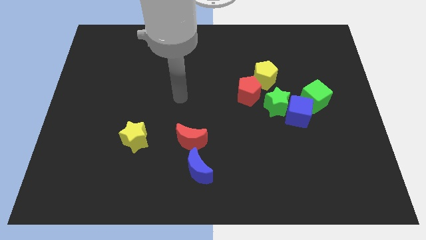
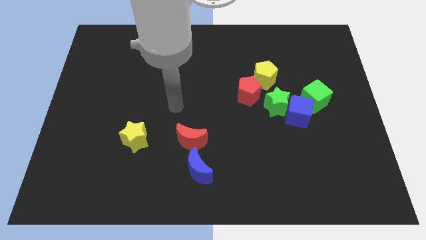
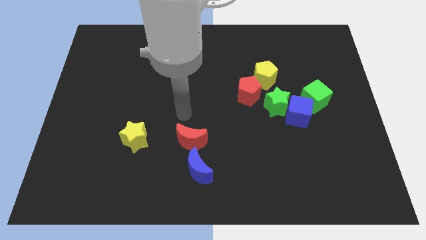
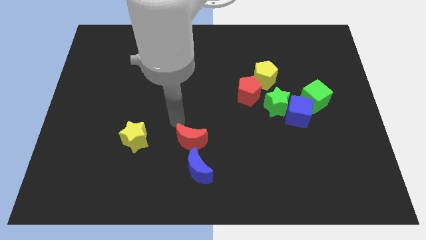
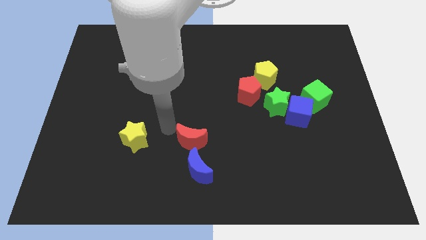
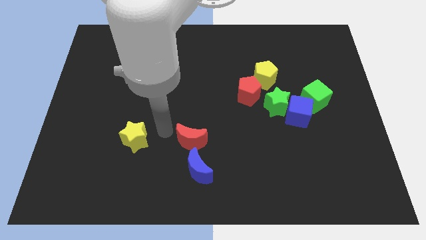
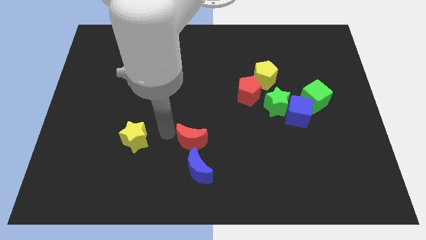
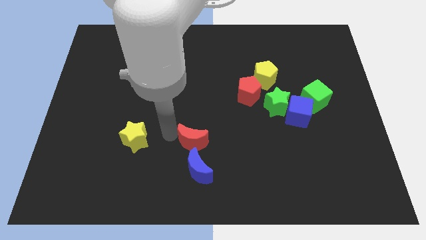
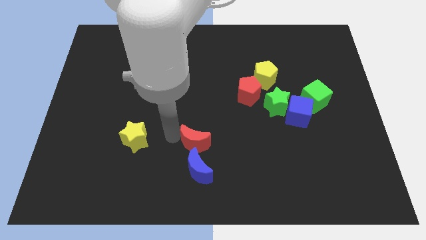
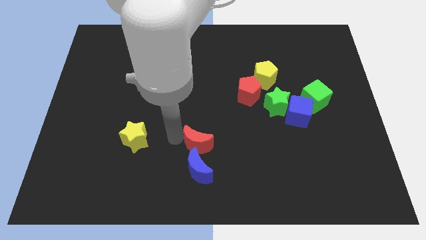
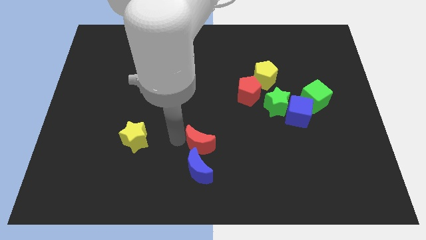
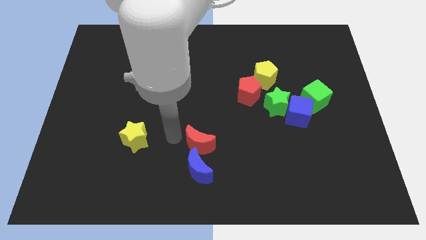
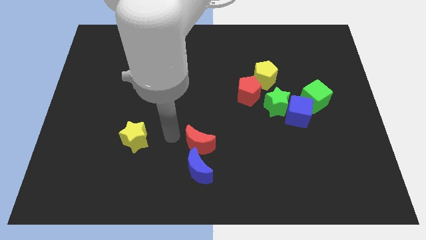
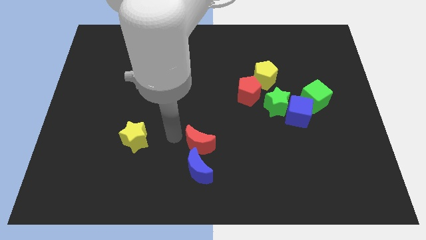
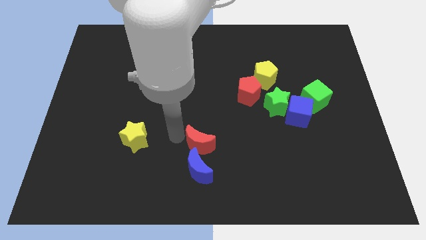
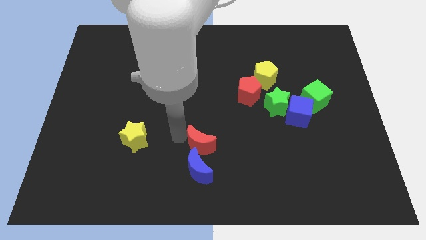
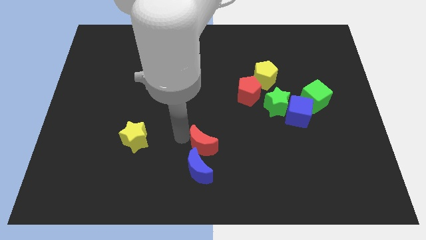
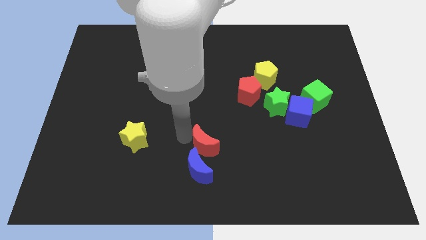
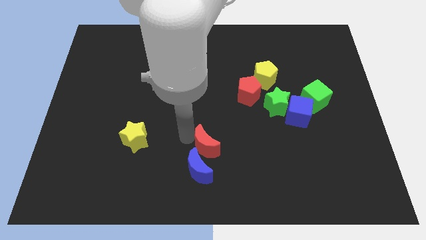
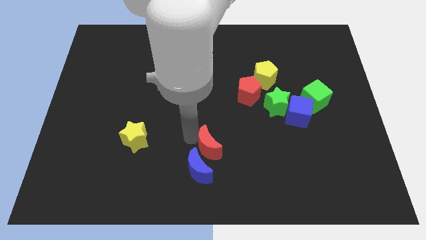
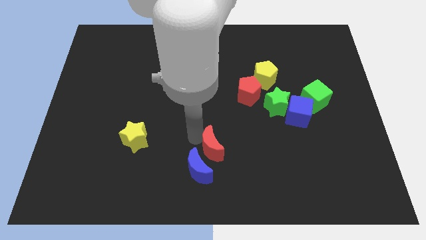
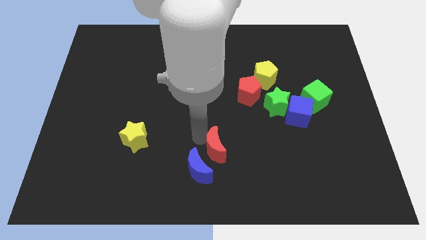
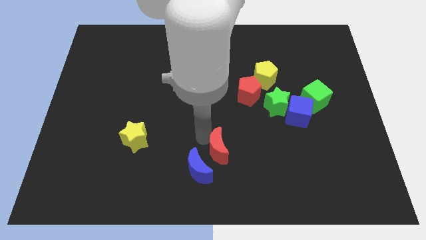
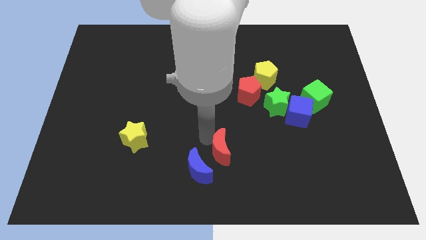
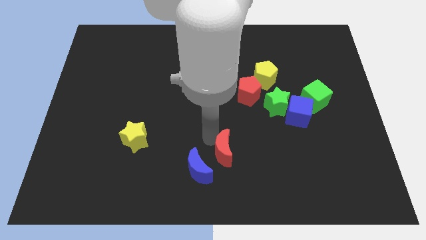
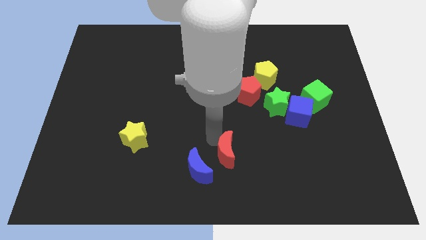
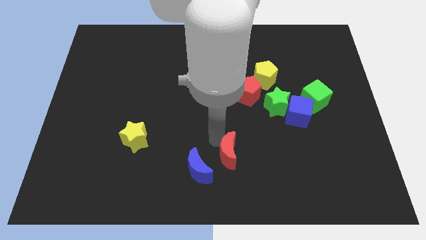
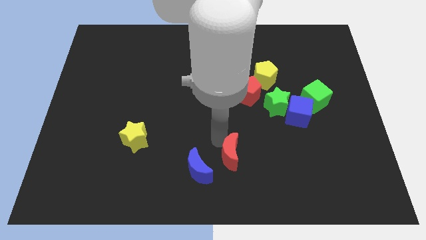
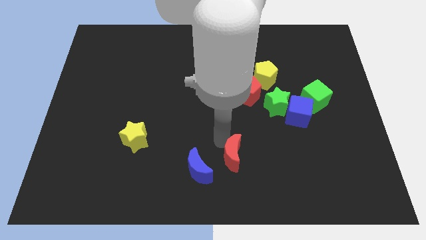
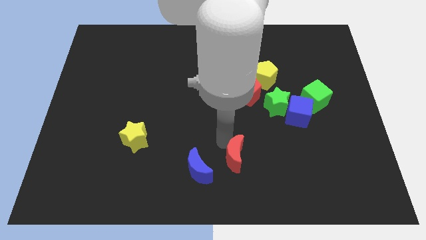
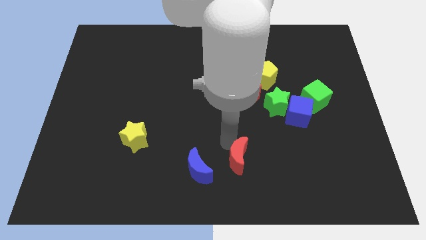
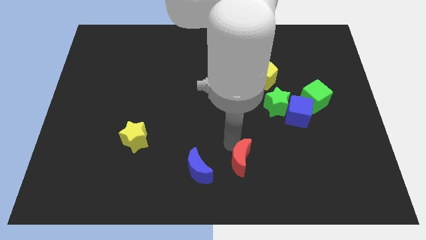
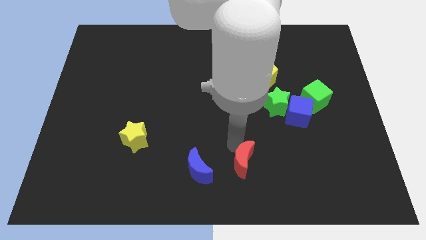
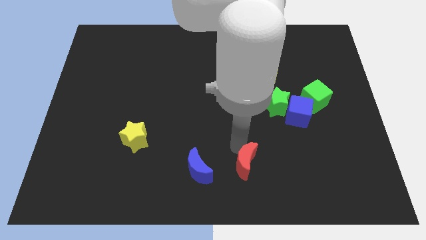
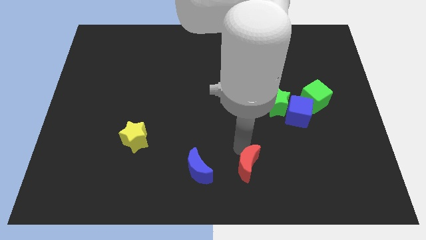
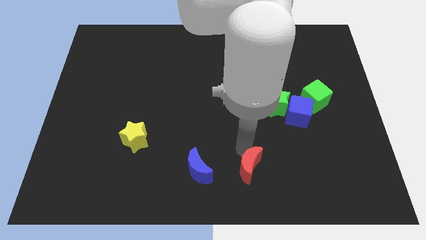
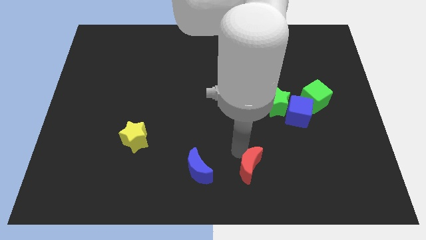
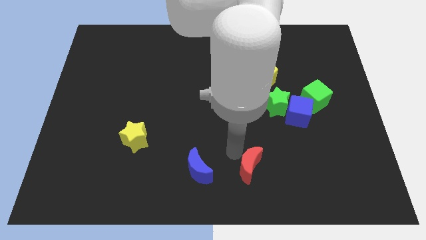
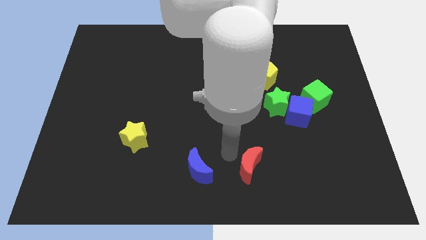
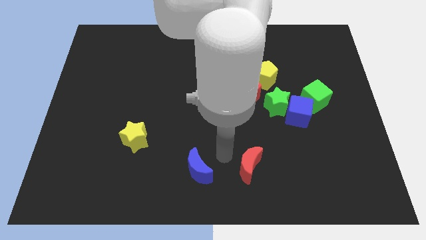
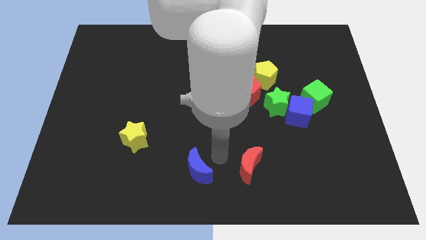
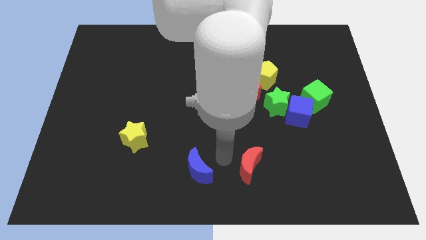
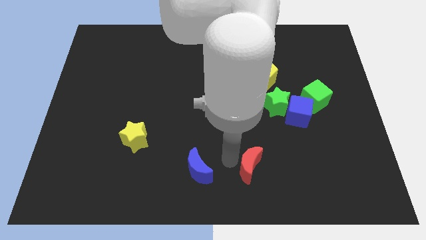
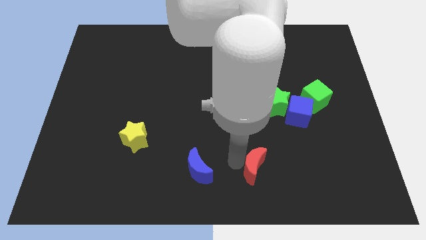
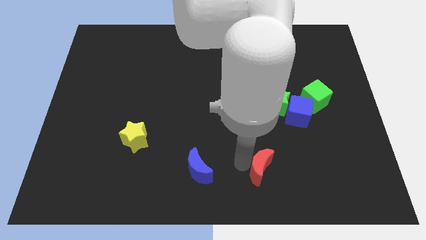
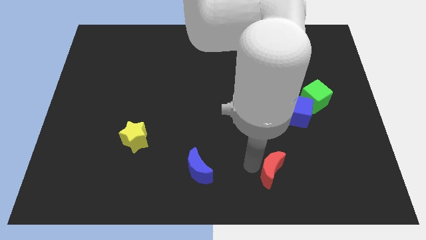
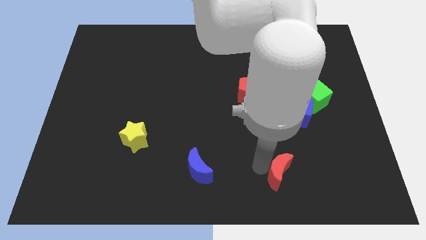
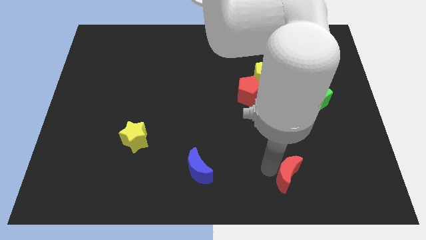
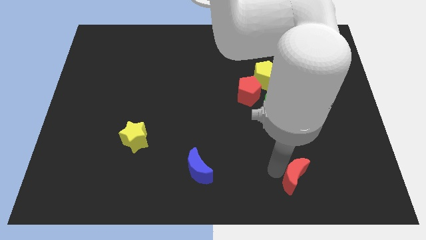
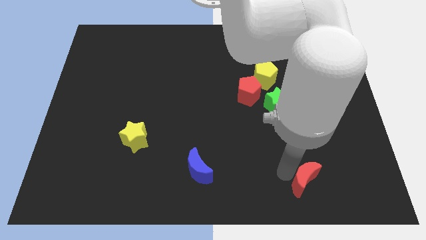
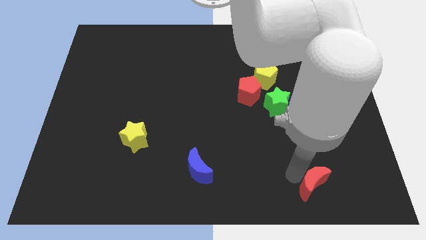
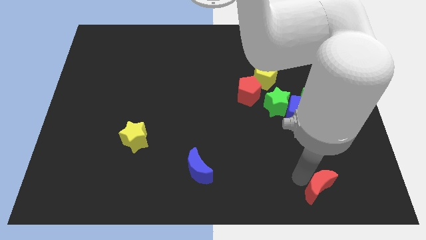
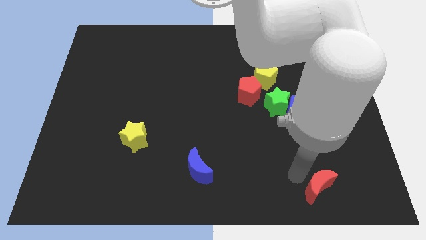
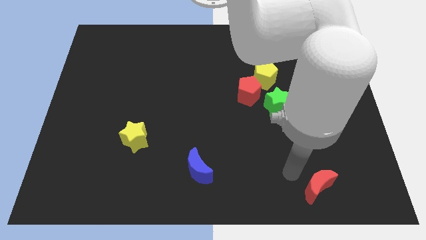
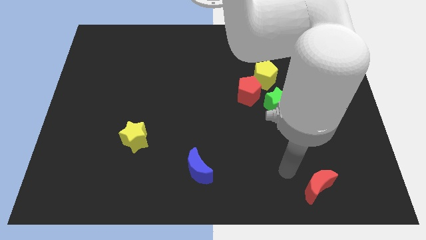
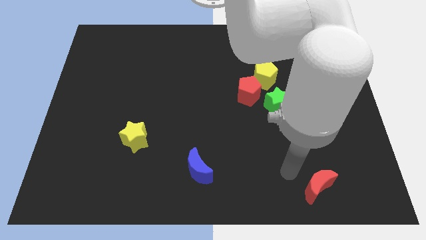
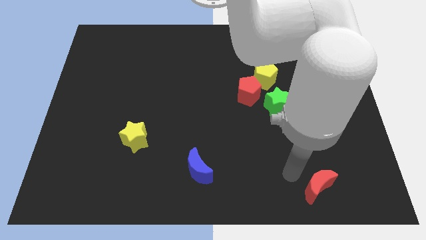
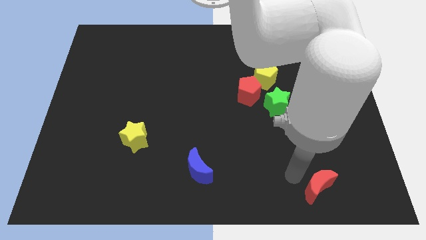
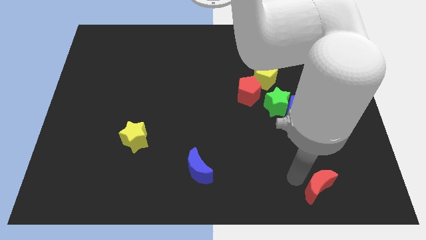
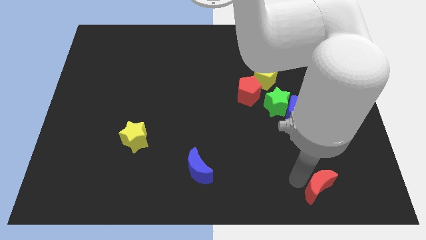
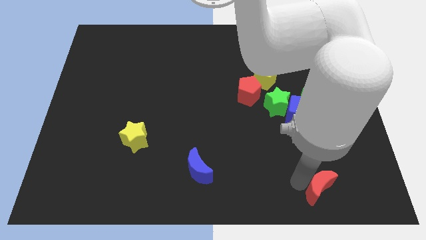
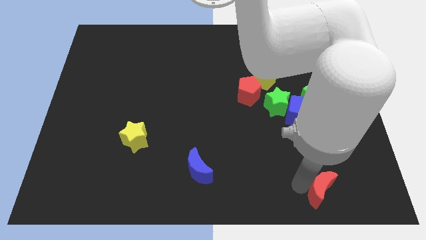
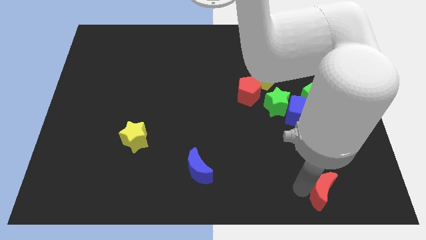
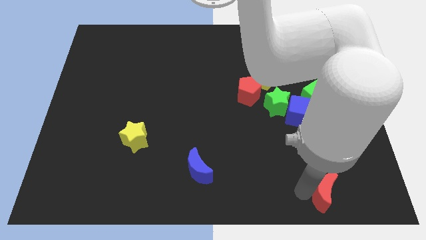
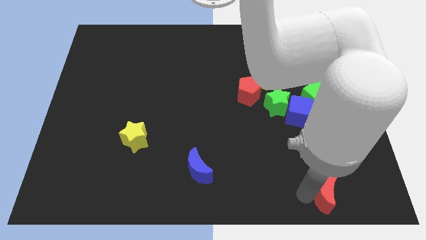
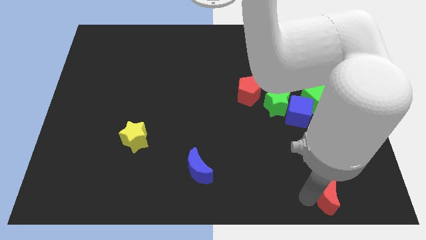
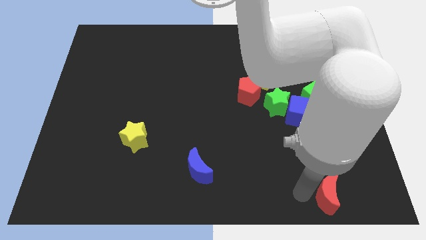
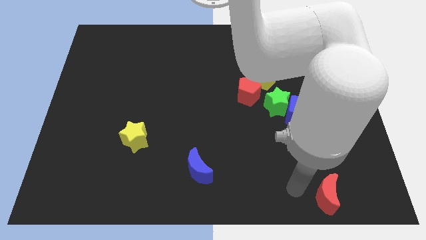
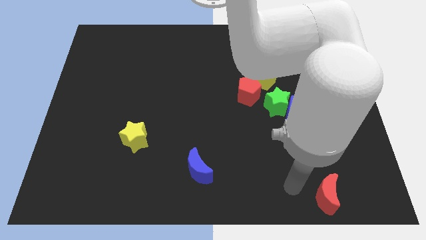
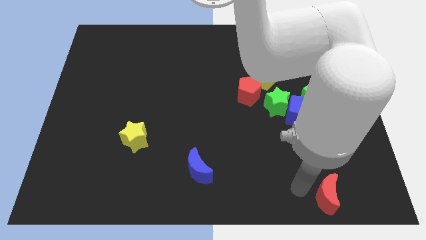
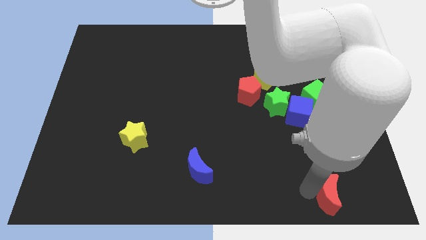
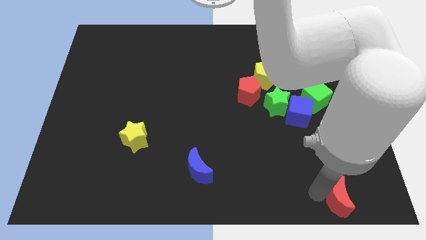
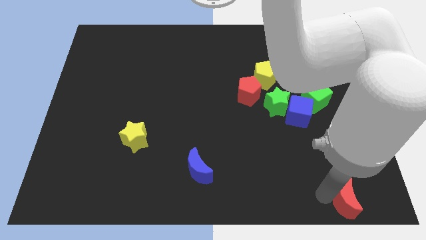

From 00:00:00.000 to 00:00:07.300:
put the red moon to the bottom right corner

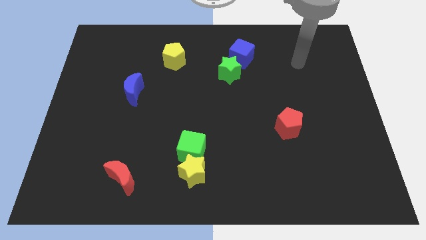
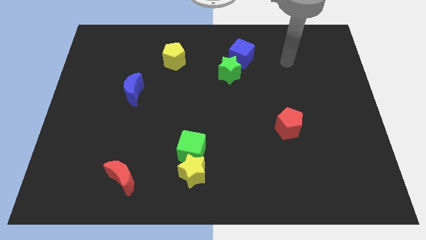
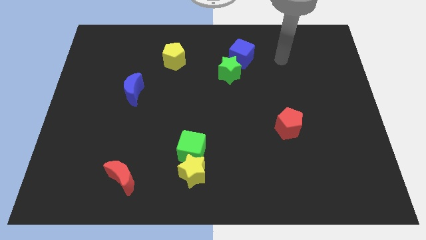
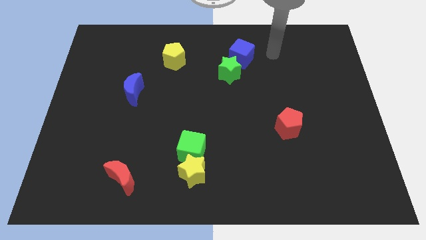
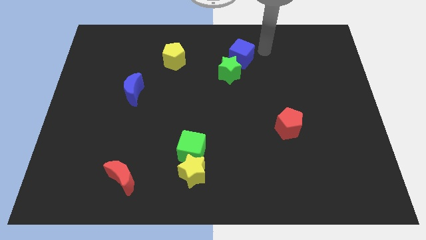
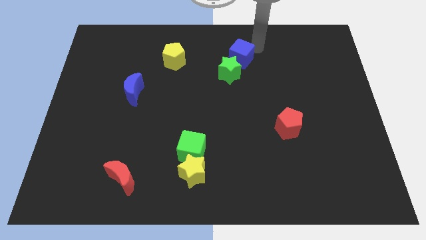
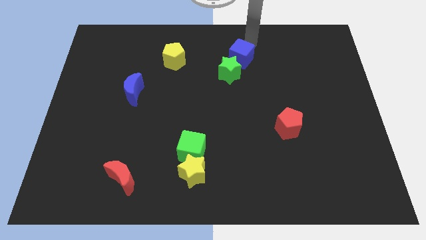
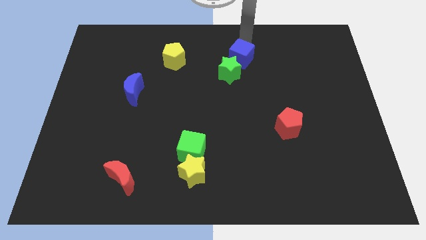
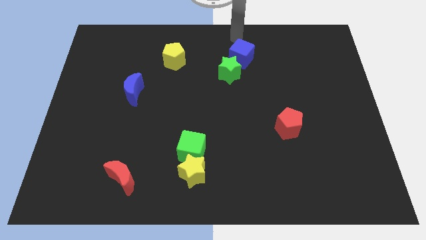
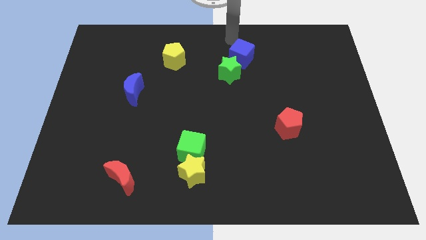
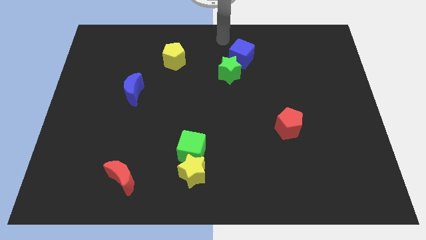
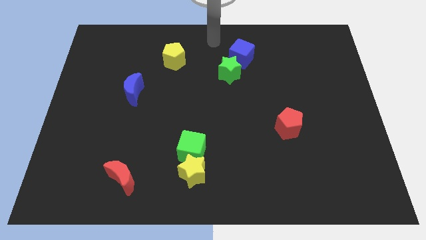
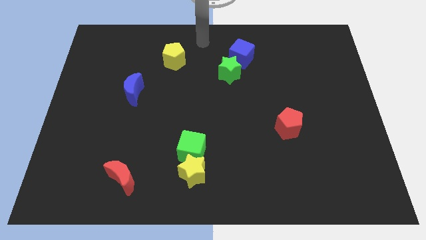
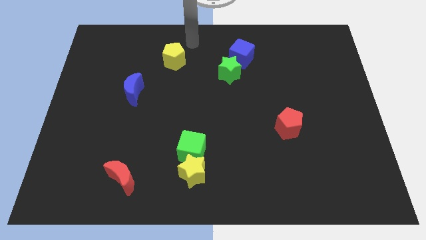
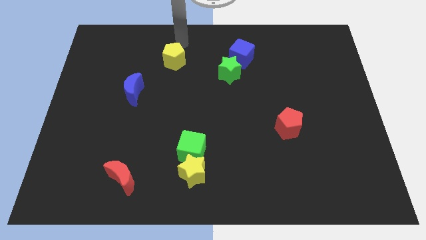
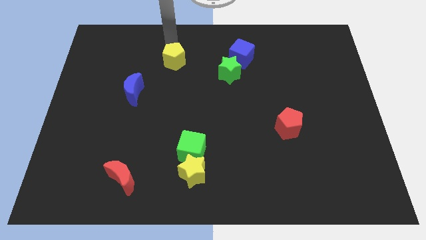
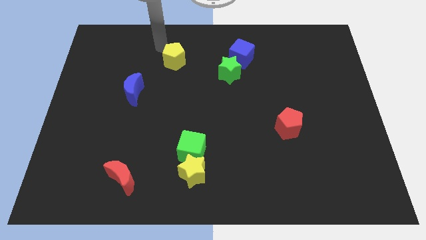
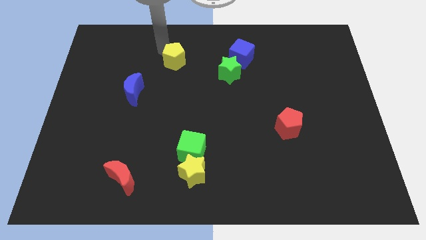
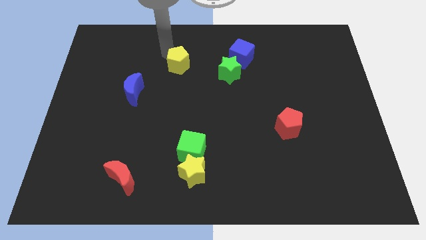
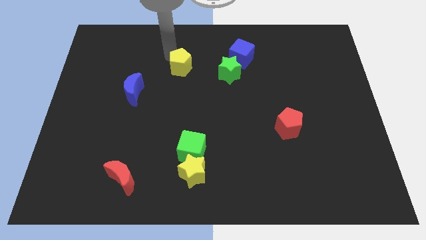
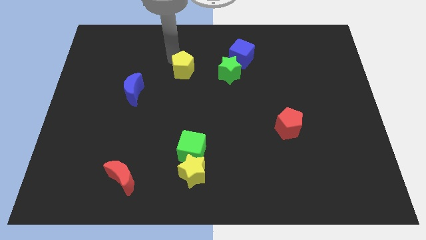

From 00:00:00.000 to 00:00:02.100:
put the yellow pentagon to the middle of the board
